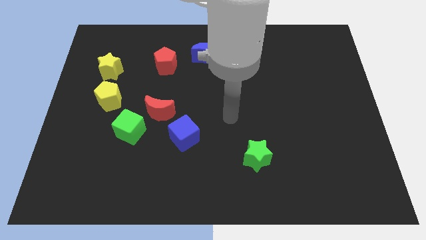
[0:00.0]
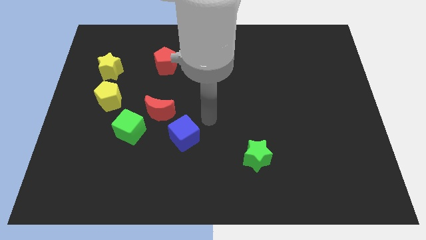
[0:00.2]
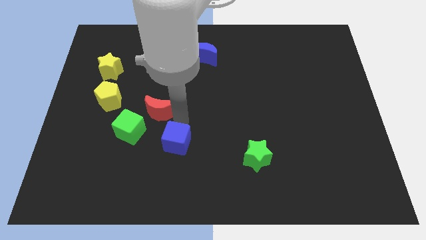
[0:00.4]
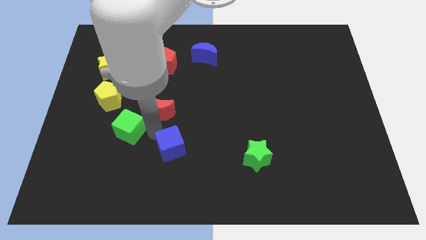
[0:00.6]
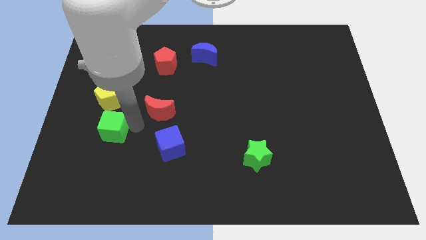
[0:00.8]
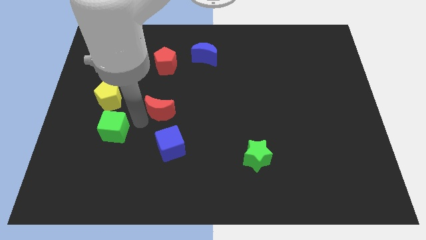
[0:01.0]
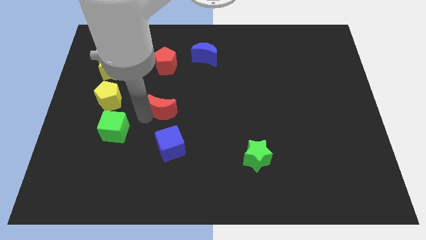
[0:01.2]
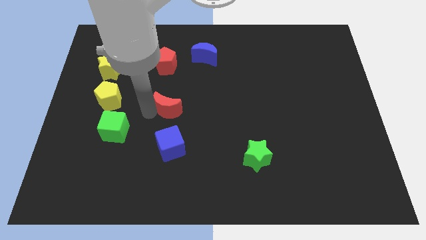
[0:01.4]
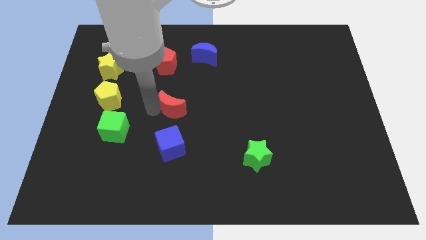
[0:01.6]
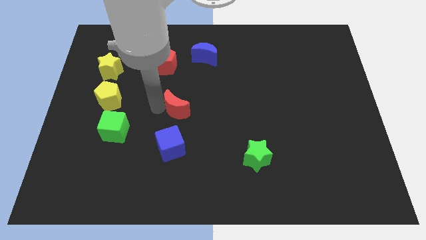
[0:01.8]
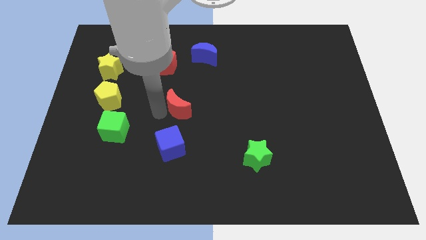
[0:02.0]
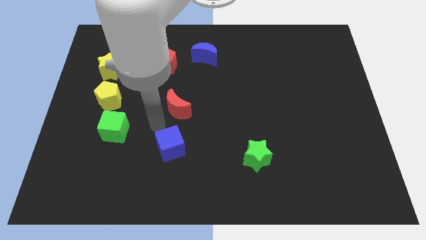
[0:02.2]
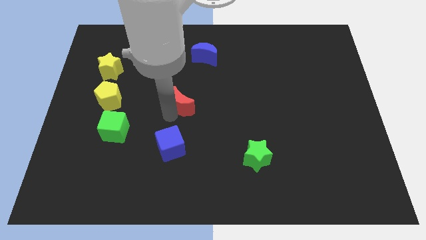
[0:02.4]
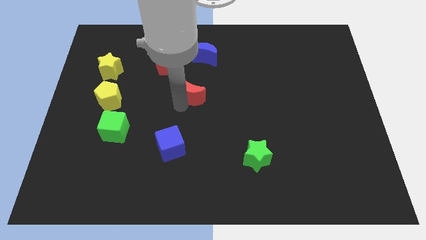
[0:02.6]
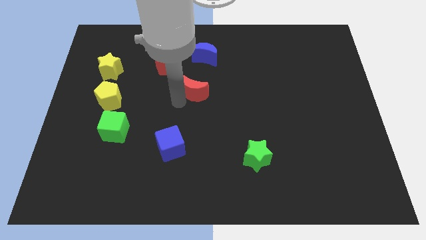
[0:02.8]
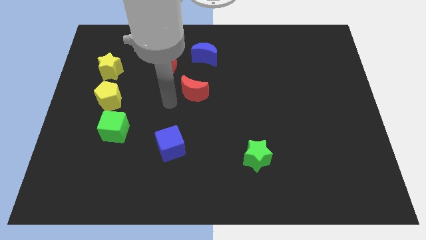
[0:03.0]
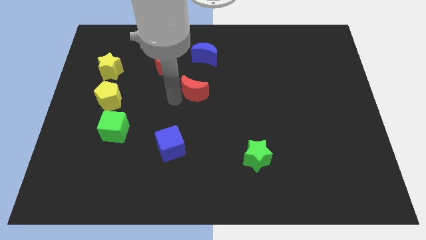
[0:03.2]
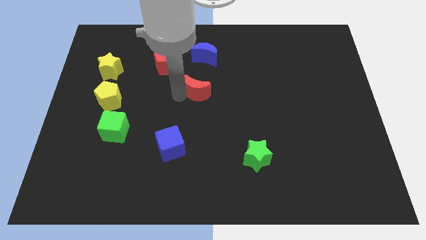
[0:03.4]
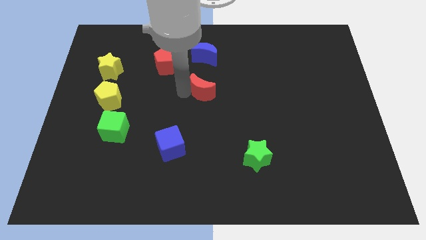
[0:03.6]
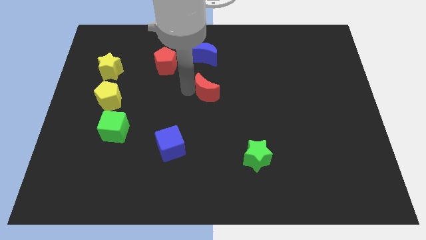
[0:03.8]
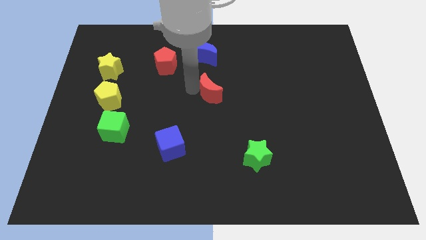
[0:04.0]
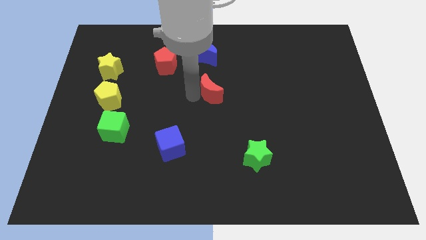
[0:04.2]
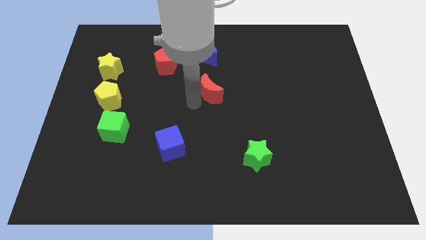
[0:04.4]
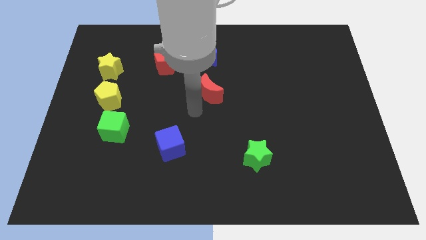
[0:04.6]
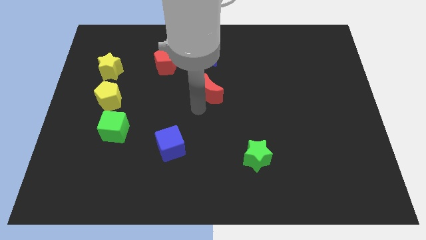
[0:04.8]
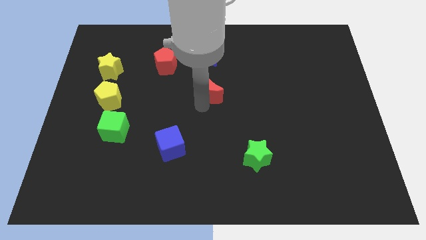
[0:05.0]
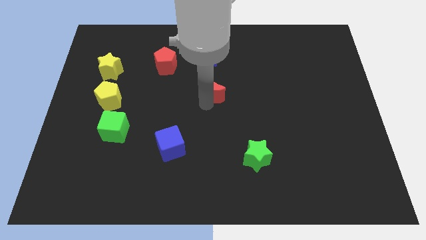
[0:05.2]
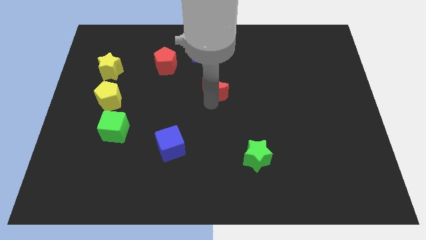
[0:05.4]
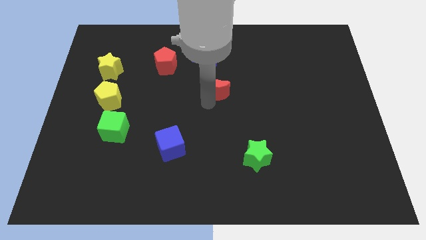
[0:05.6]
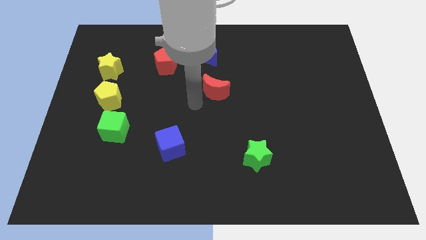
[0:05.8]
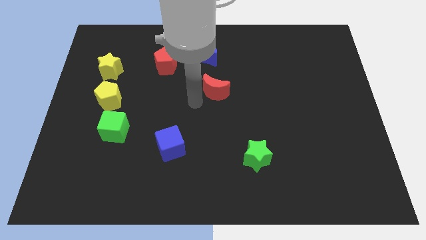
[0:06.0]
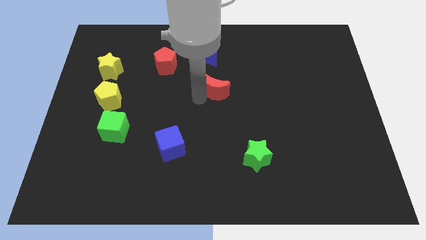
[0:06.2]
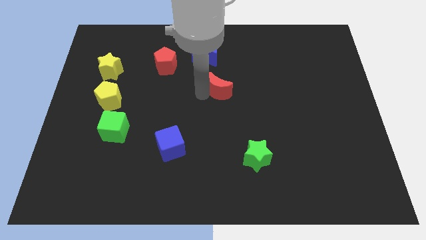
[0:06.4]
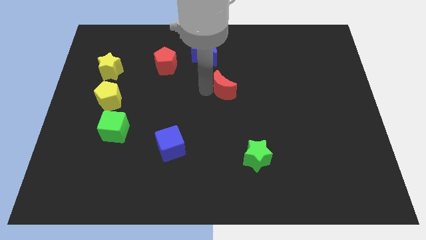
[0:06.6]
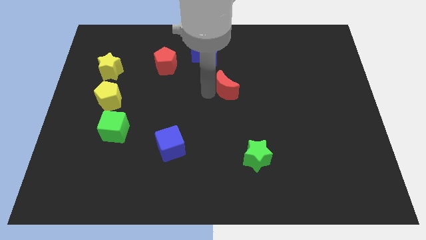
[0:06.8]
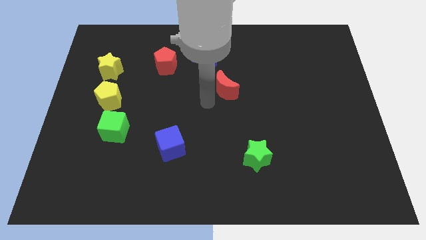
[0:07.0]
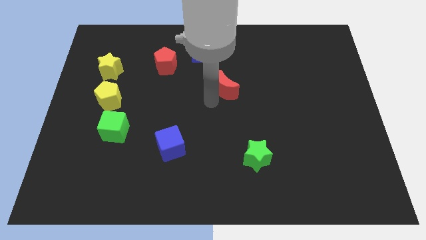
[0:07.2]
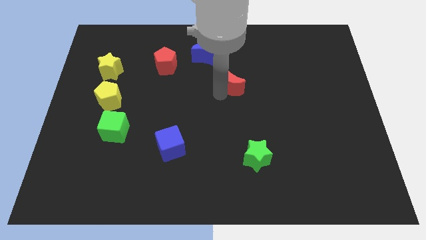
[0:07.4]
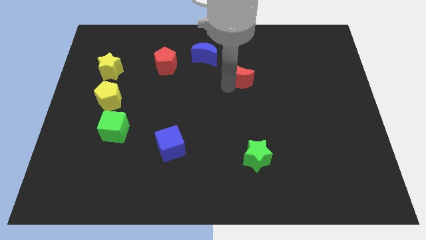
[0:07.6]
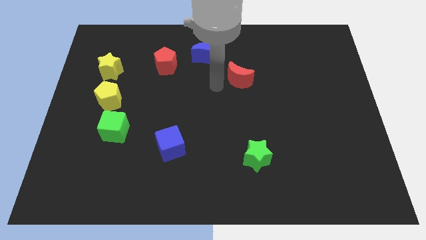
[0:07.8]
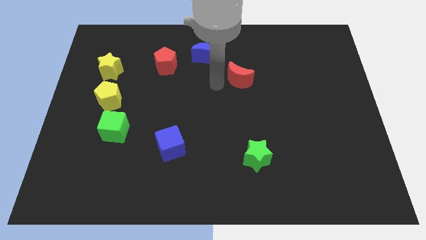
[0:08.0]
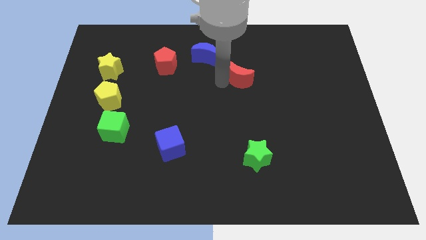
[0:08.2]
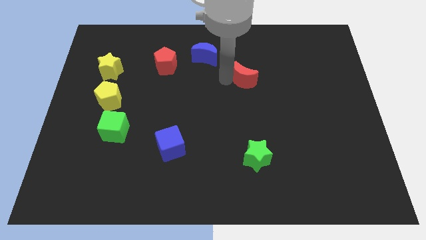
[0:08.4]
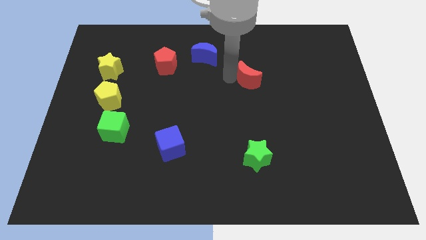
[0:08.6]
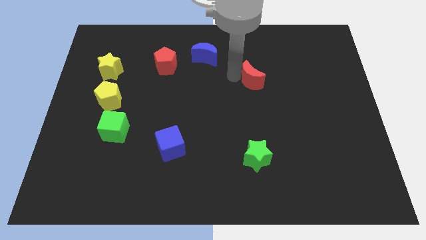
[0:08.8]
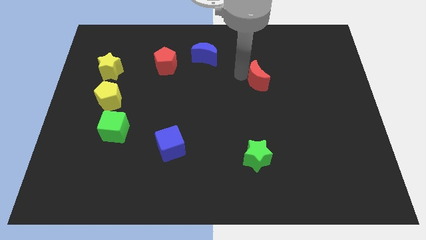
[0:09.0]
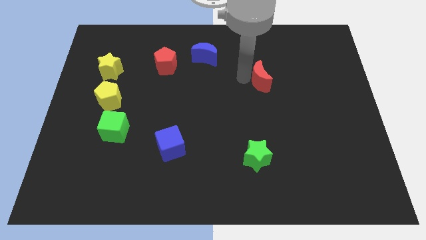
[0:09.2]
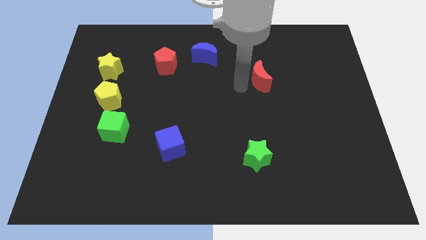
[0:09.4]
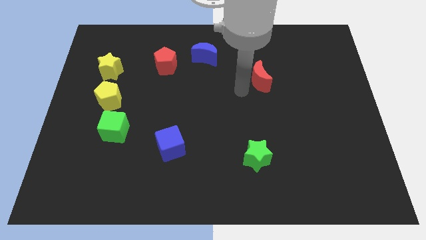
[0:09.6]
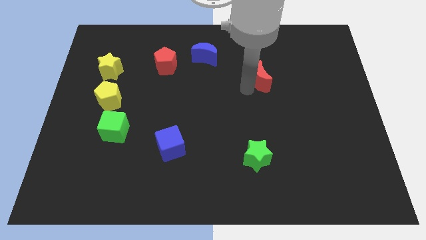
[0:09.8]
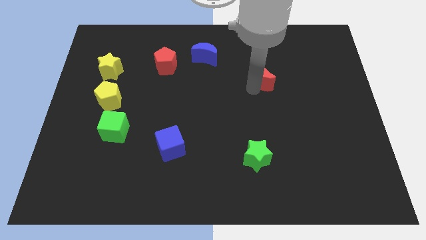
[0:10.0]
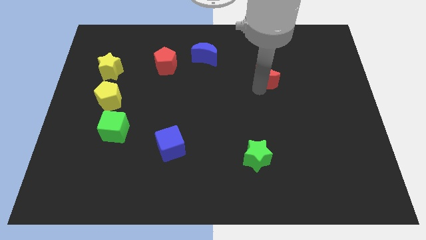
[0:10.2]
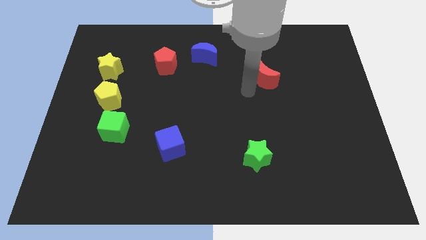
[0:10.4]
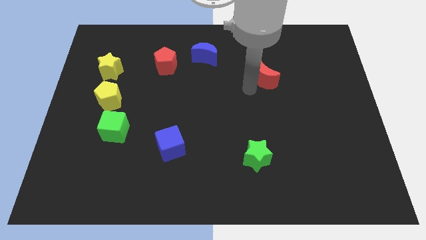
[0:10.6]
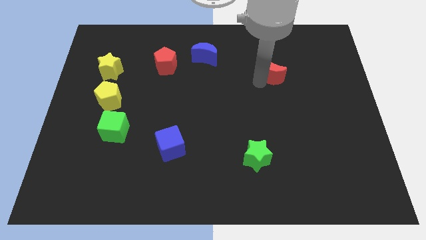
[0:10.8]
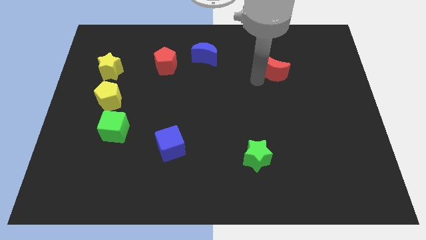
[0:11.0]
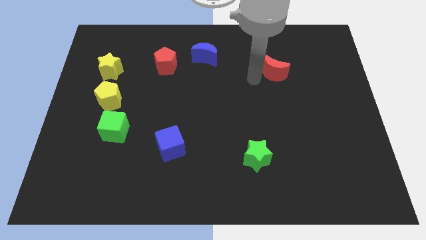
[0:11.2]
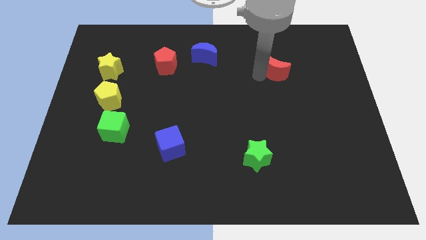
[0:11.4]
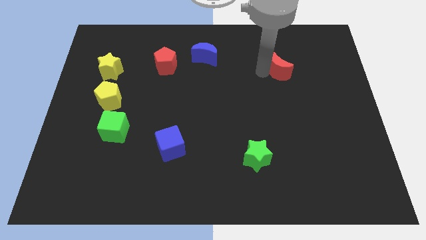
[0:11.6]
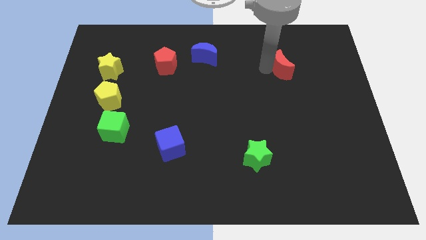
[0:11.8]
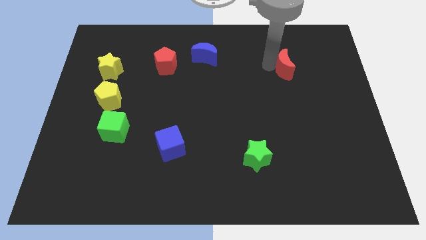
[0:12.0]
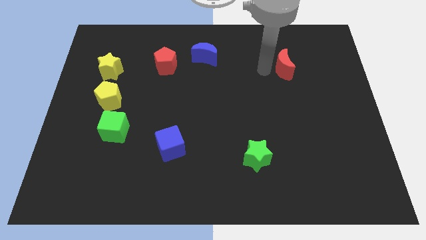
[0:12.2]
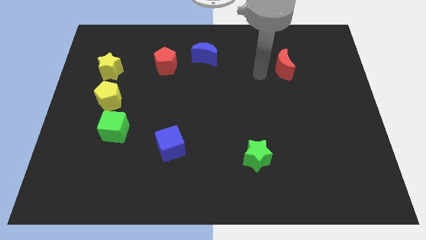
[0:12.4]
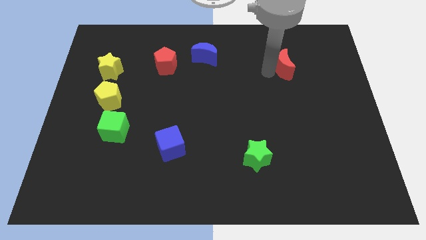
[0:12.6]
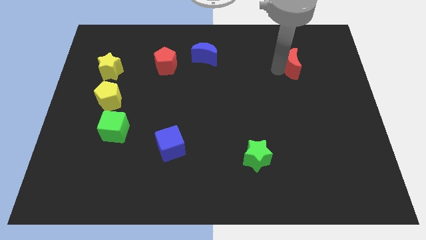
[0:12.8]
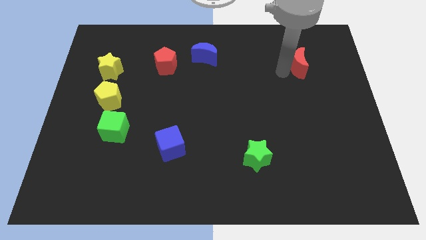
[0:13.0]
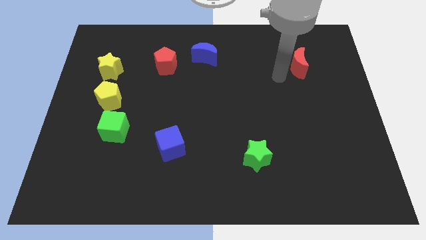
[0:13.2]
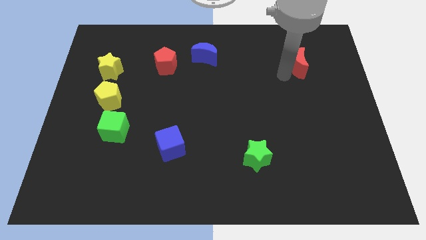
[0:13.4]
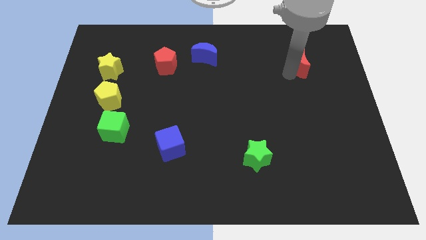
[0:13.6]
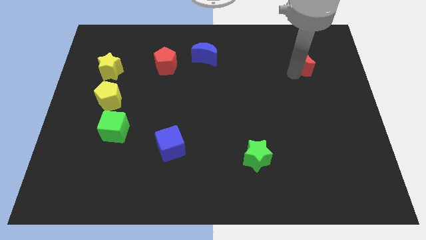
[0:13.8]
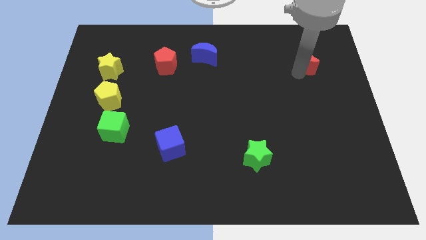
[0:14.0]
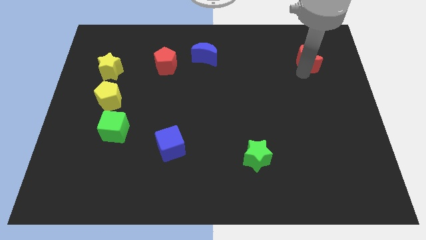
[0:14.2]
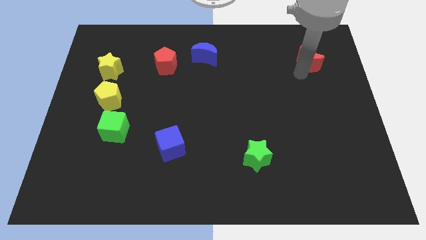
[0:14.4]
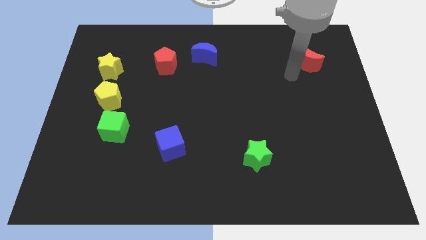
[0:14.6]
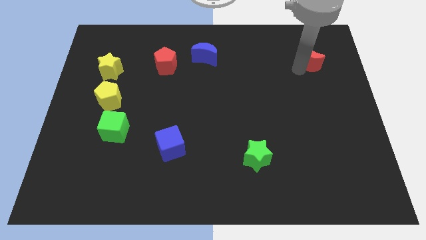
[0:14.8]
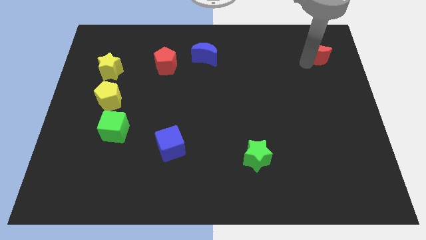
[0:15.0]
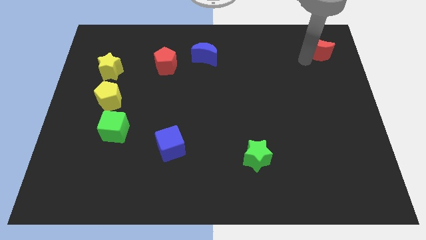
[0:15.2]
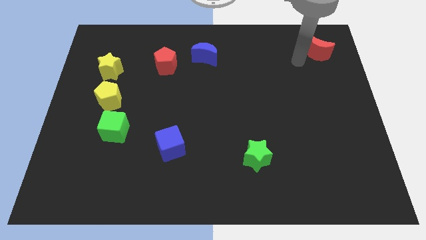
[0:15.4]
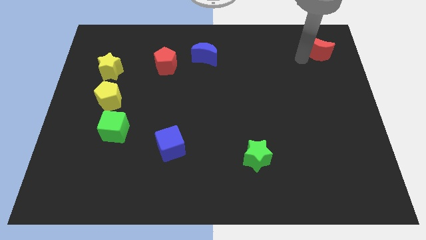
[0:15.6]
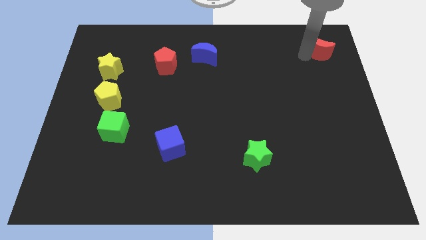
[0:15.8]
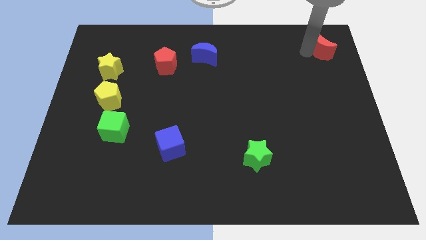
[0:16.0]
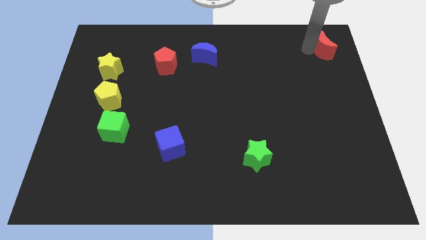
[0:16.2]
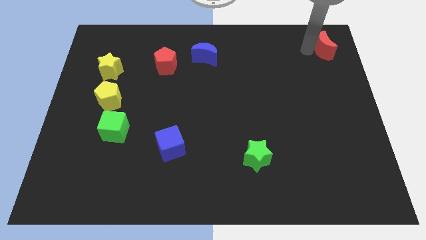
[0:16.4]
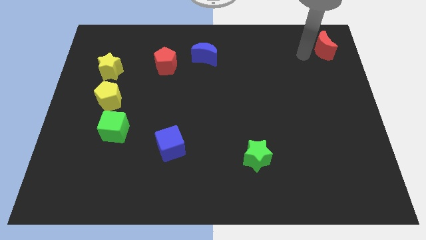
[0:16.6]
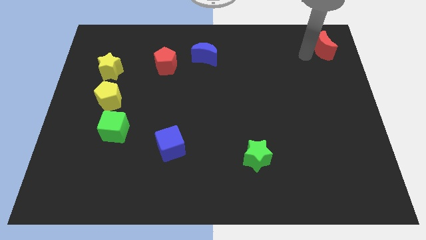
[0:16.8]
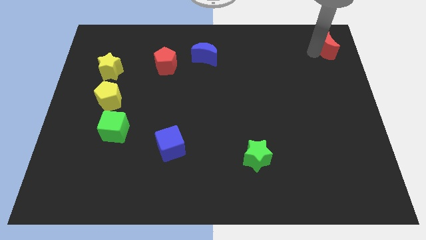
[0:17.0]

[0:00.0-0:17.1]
push the red moon to the upper right corner
